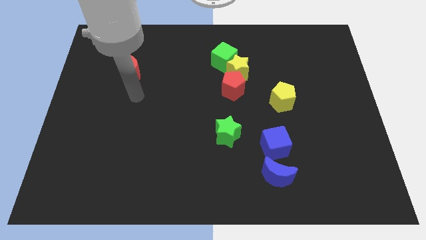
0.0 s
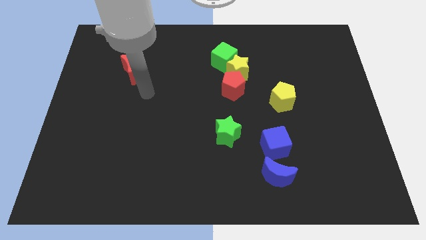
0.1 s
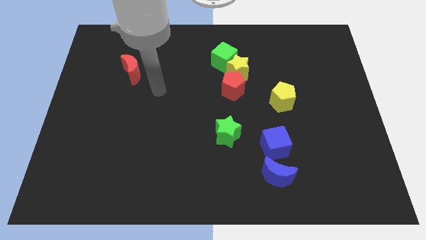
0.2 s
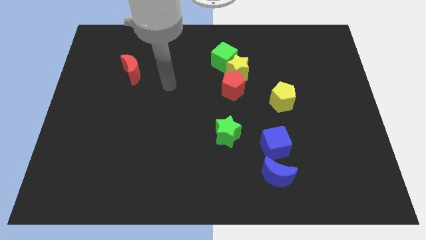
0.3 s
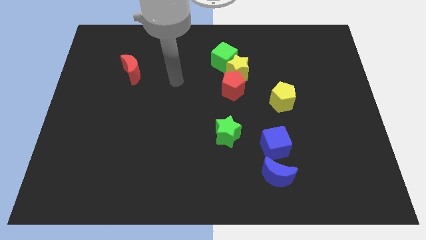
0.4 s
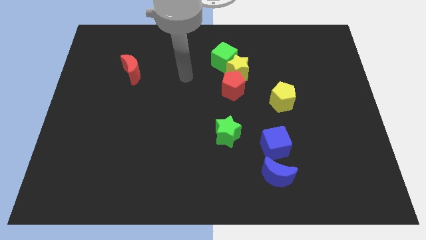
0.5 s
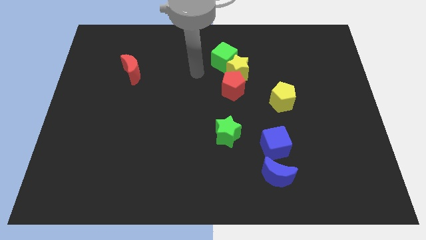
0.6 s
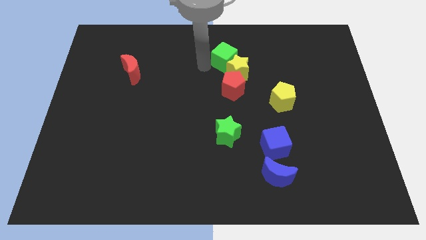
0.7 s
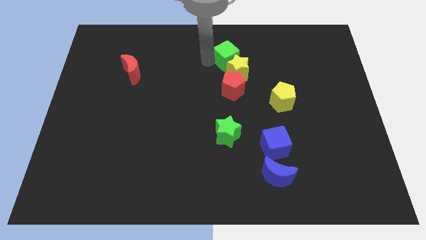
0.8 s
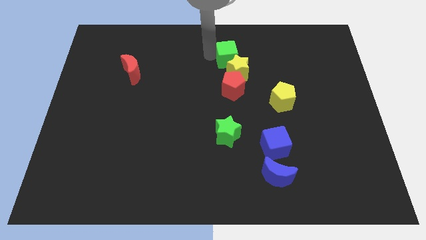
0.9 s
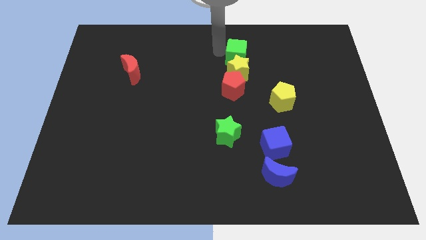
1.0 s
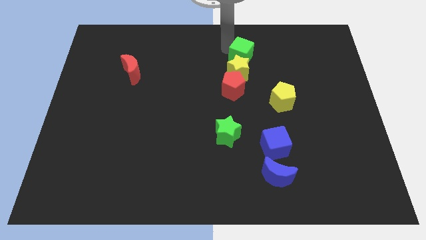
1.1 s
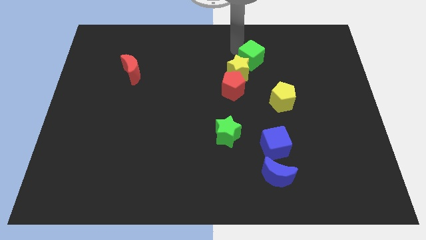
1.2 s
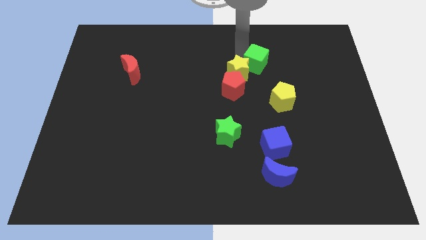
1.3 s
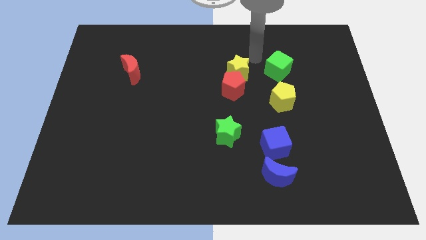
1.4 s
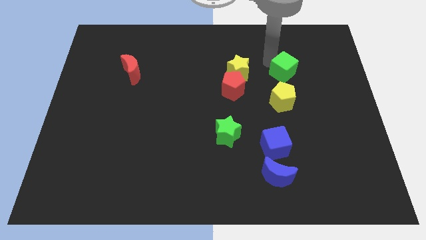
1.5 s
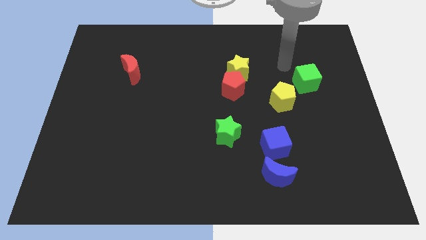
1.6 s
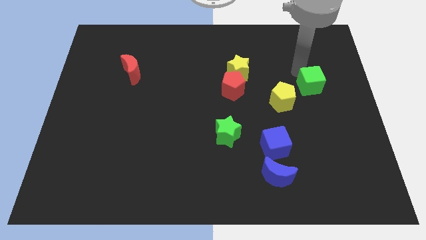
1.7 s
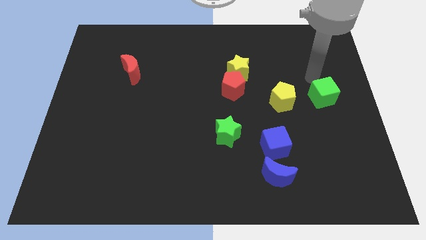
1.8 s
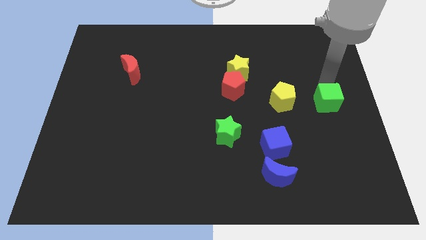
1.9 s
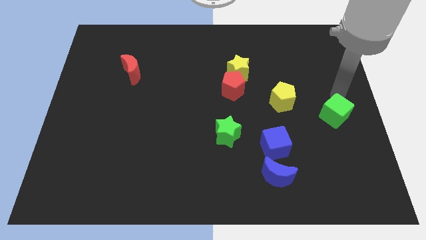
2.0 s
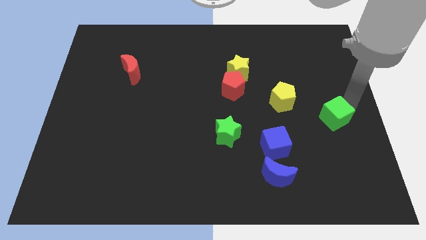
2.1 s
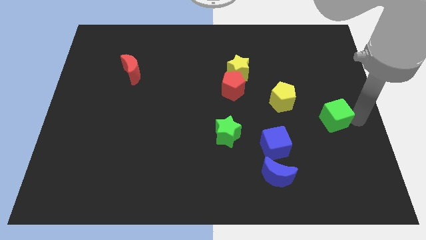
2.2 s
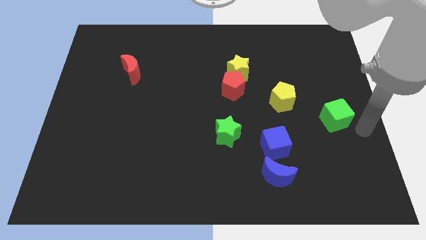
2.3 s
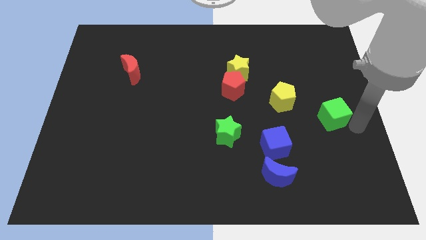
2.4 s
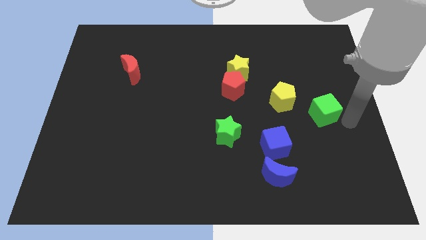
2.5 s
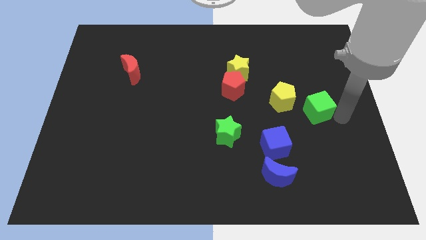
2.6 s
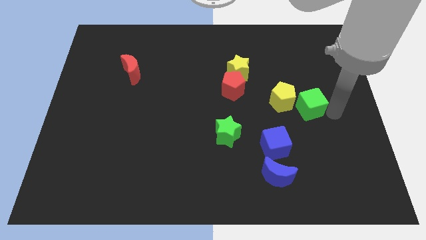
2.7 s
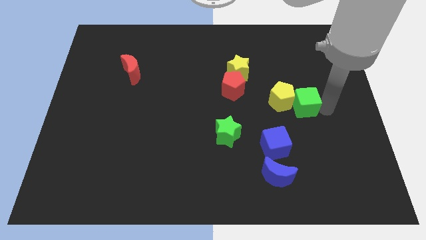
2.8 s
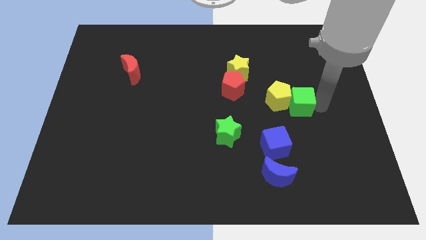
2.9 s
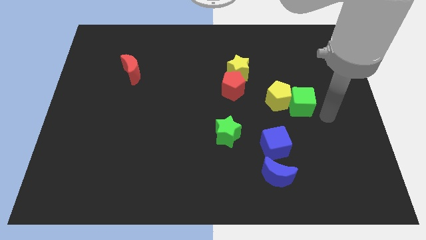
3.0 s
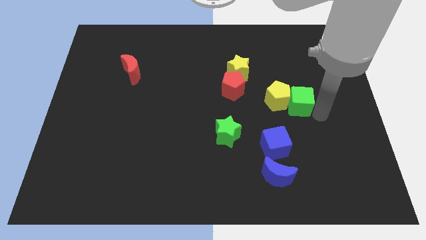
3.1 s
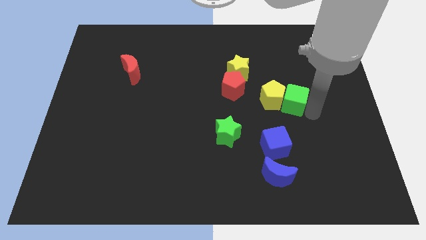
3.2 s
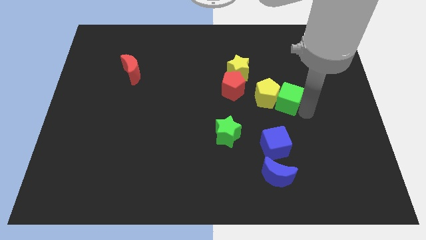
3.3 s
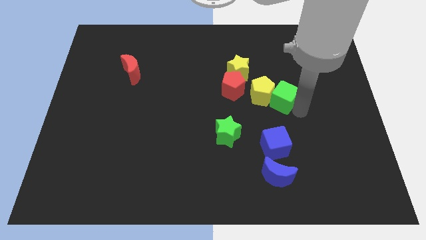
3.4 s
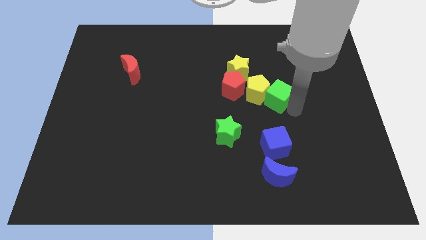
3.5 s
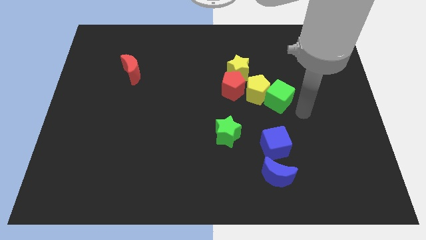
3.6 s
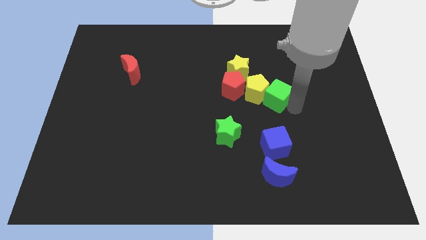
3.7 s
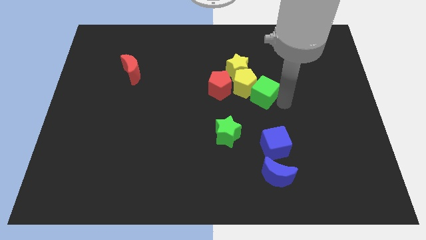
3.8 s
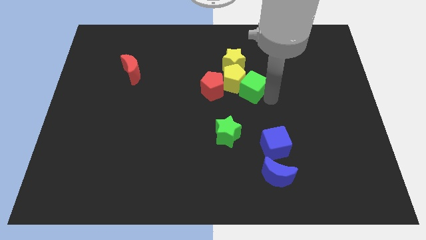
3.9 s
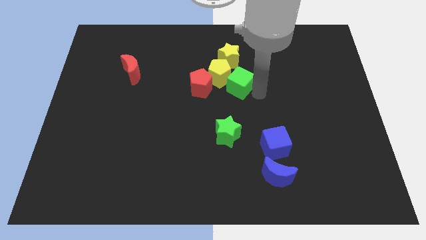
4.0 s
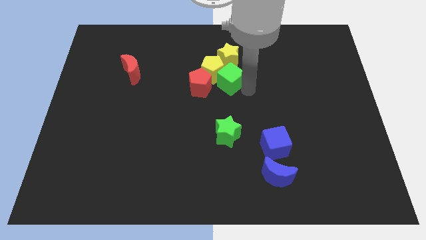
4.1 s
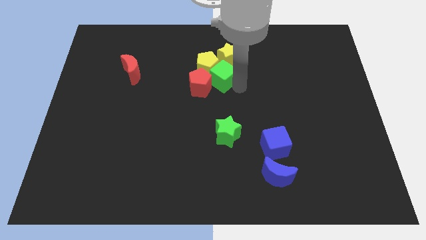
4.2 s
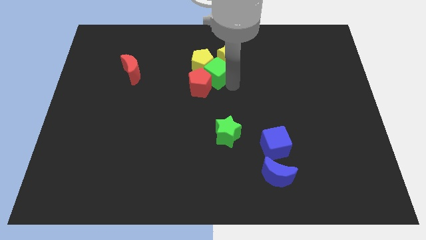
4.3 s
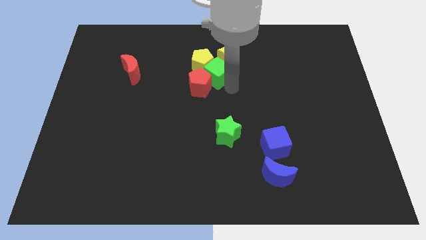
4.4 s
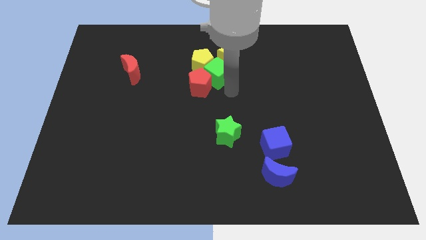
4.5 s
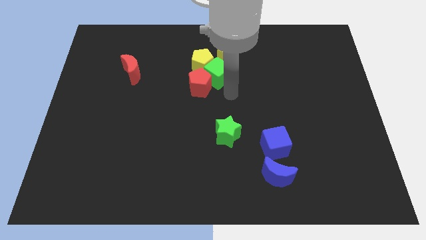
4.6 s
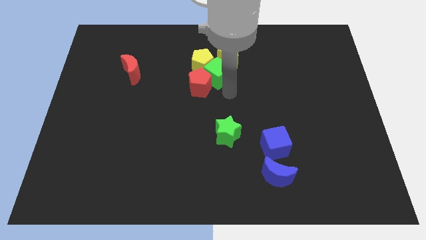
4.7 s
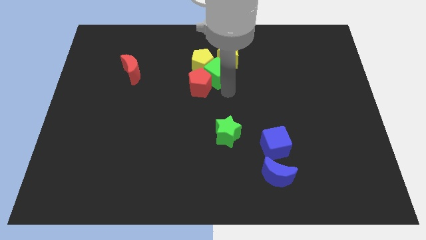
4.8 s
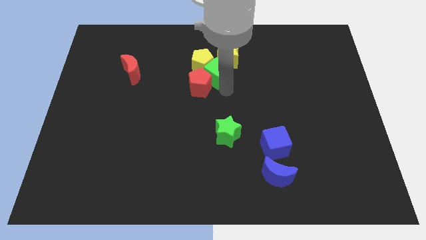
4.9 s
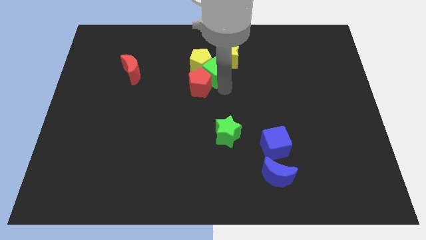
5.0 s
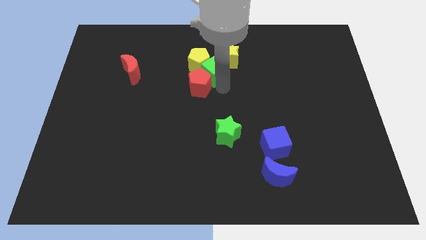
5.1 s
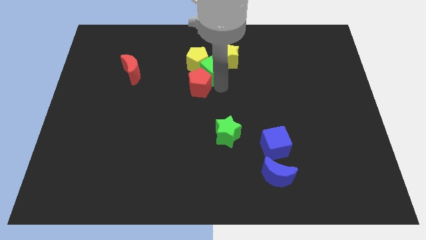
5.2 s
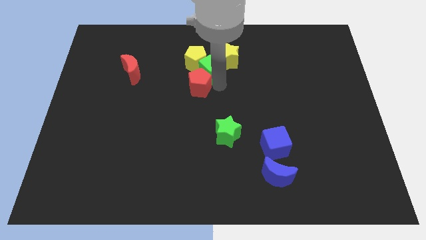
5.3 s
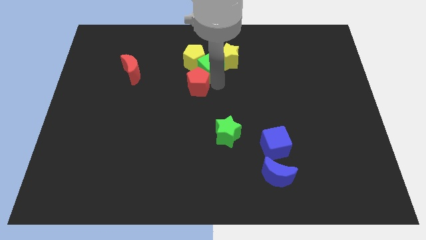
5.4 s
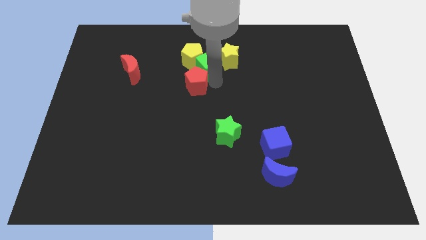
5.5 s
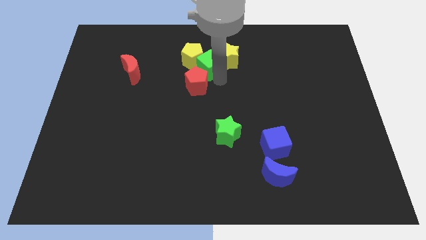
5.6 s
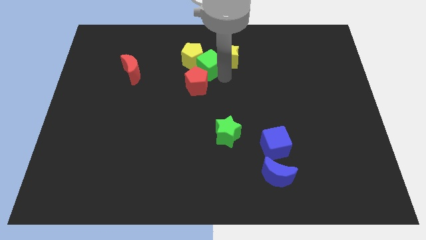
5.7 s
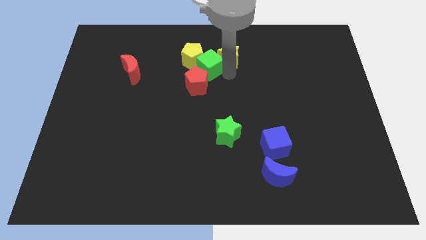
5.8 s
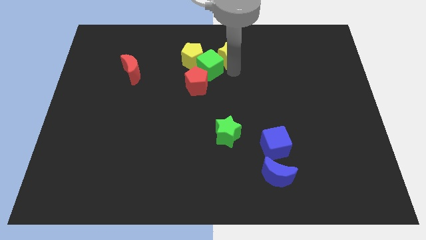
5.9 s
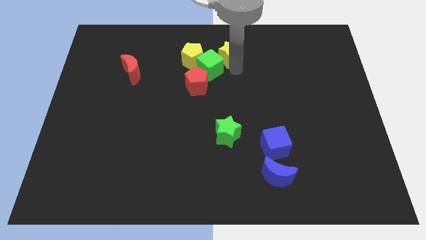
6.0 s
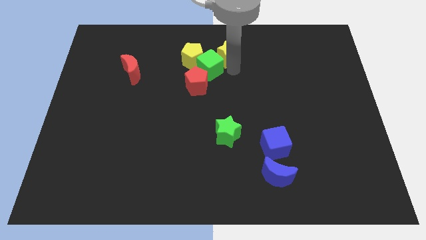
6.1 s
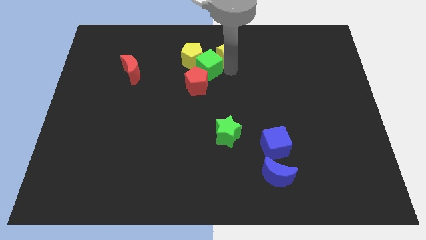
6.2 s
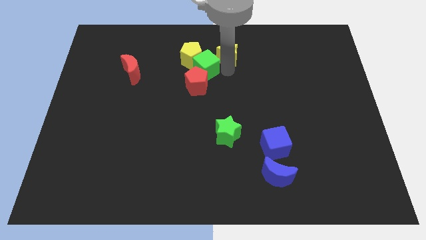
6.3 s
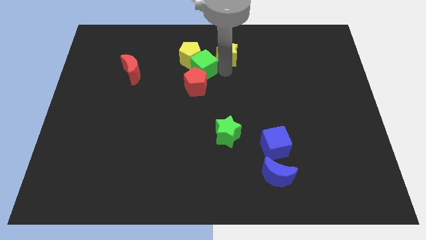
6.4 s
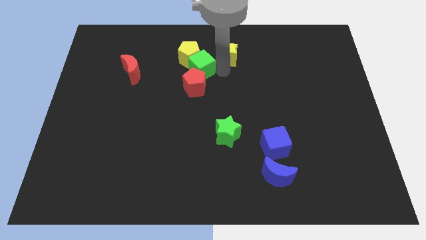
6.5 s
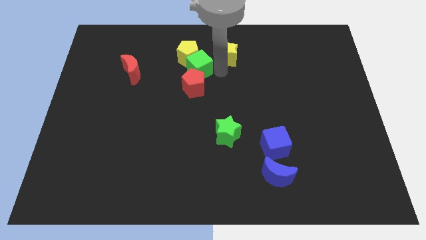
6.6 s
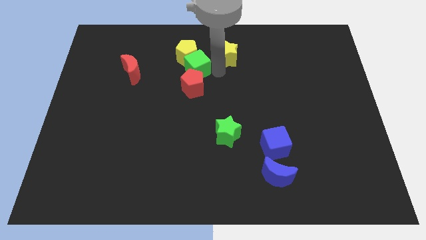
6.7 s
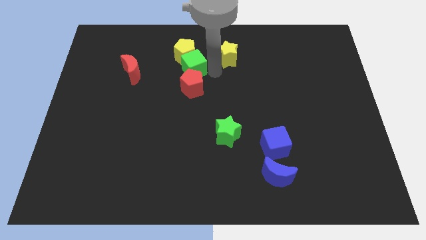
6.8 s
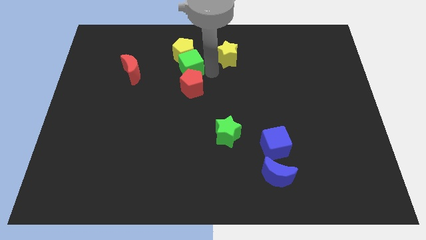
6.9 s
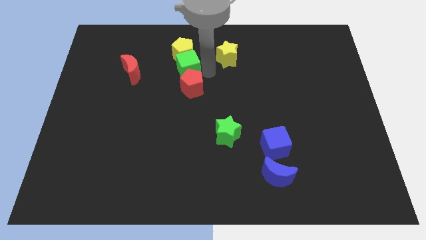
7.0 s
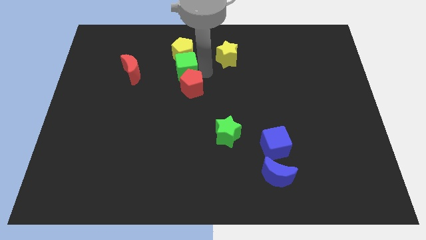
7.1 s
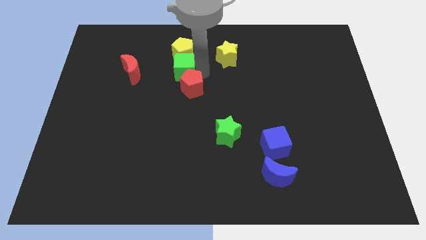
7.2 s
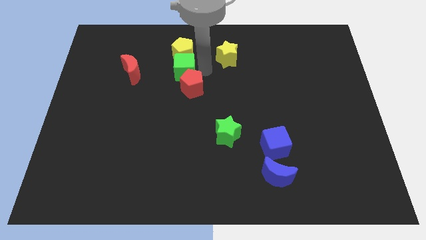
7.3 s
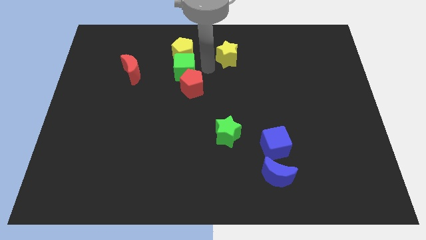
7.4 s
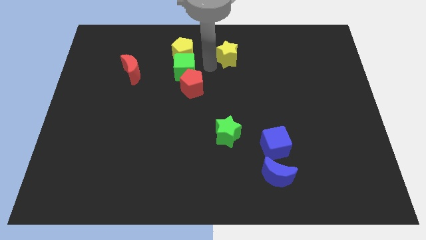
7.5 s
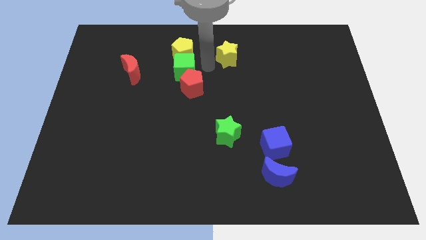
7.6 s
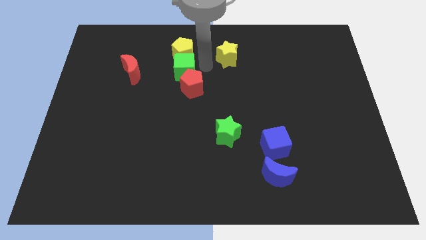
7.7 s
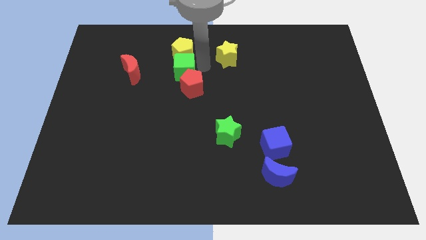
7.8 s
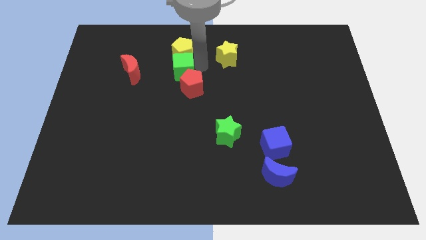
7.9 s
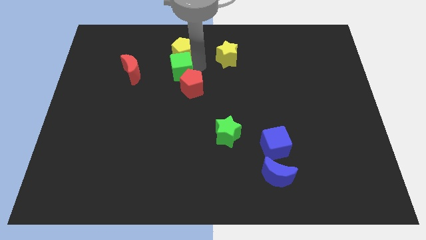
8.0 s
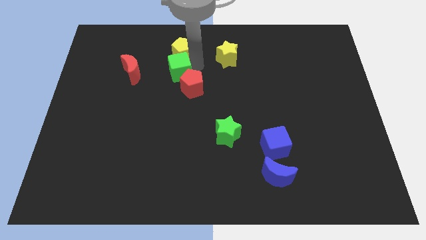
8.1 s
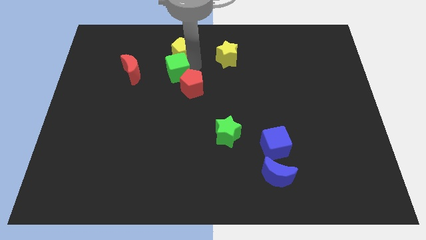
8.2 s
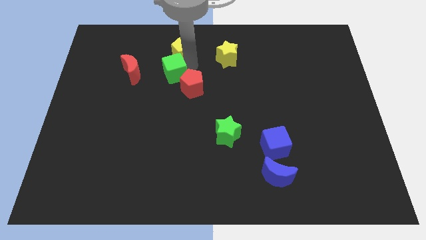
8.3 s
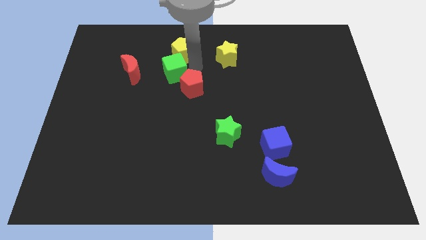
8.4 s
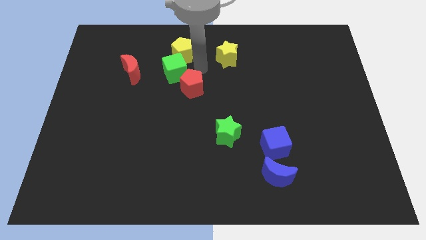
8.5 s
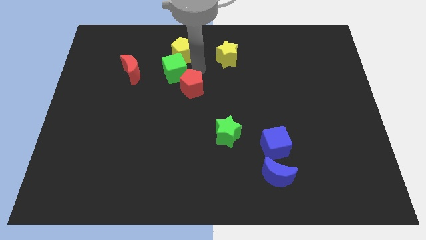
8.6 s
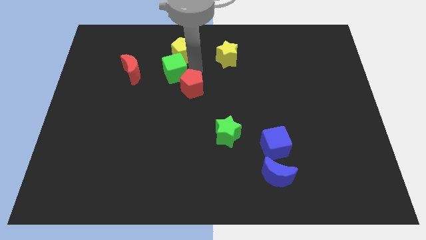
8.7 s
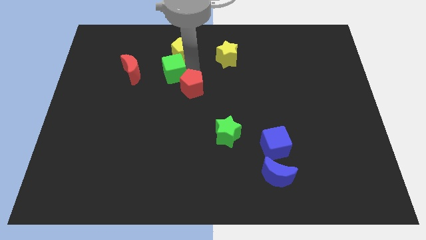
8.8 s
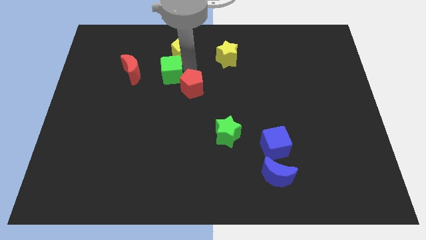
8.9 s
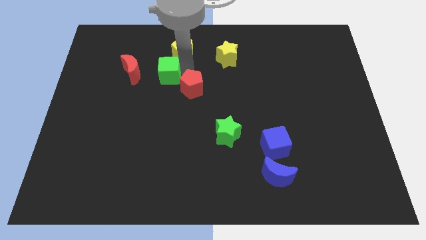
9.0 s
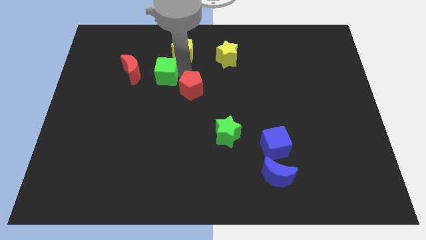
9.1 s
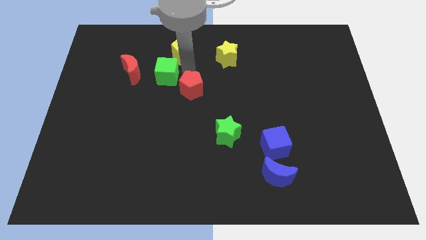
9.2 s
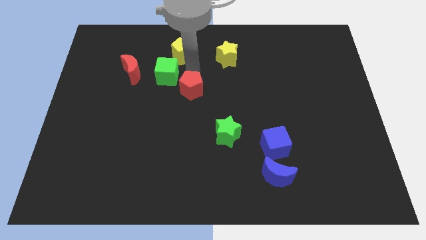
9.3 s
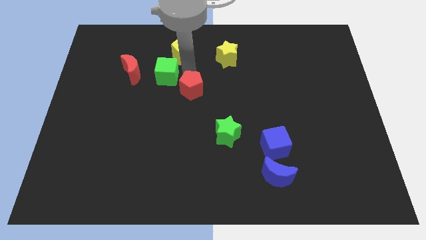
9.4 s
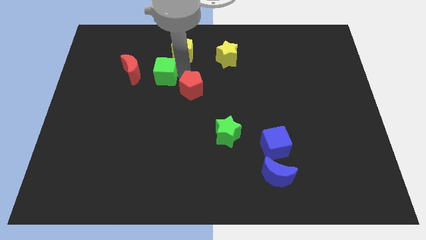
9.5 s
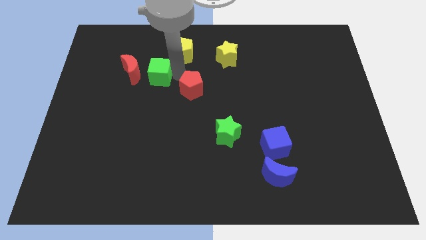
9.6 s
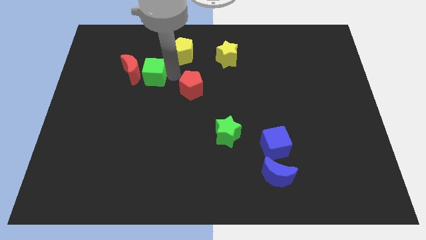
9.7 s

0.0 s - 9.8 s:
push the green cube towards the red moon
